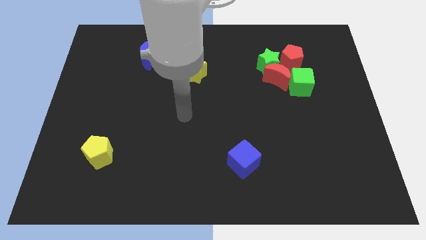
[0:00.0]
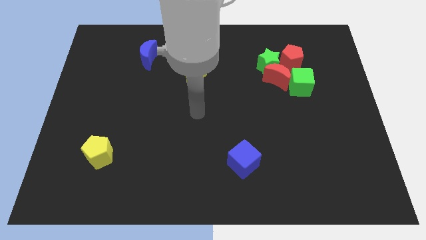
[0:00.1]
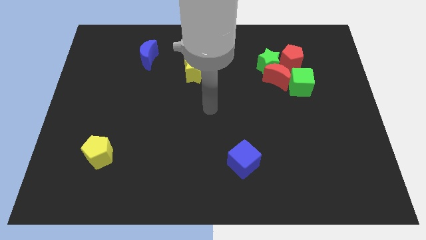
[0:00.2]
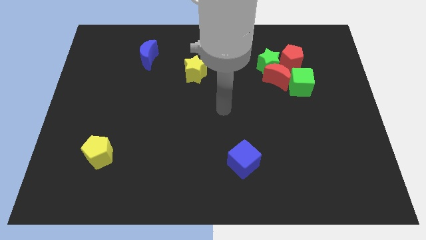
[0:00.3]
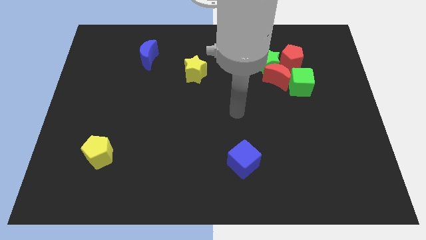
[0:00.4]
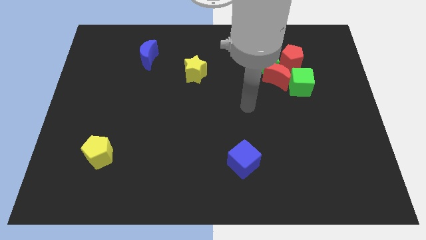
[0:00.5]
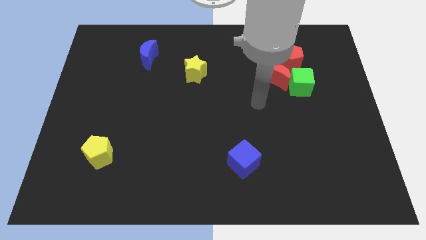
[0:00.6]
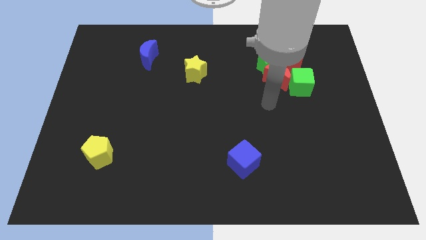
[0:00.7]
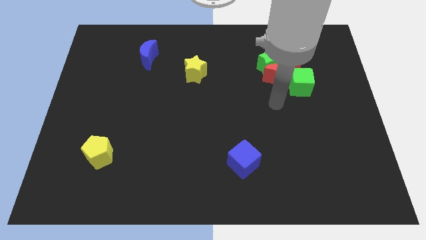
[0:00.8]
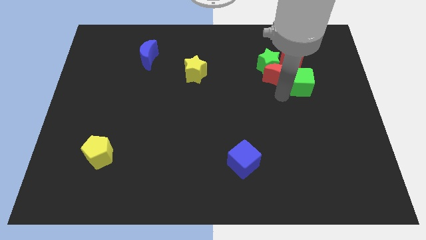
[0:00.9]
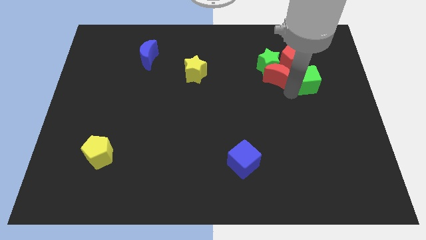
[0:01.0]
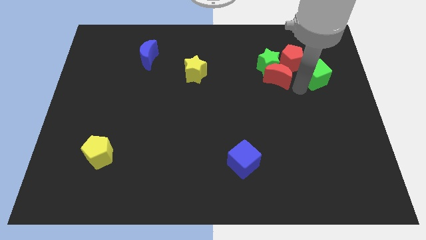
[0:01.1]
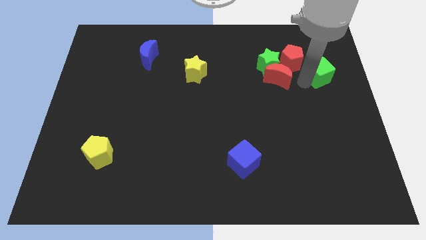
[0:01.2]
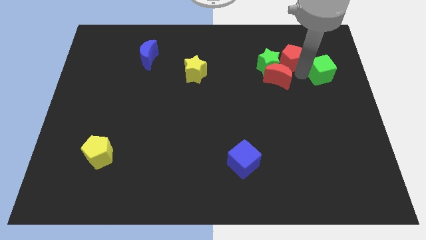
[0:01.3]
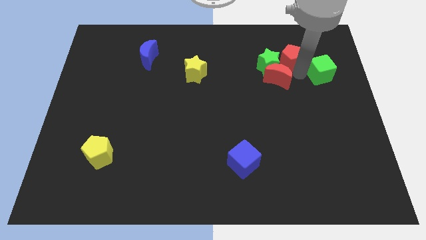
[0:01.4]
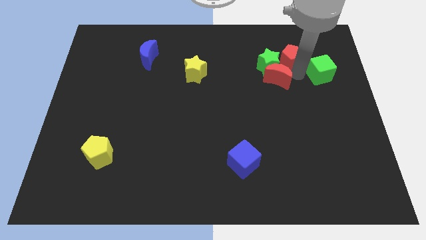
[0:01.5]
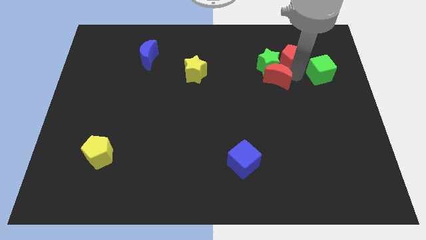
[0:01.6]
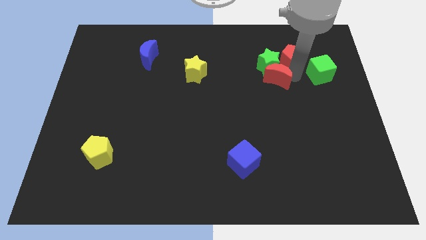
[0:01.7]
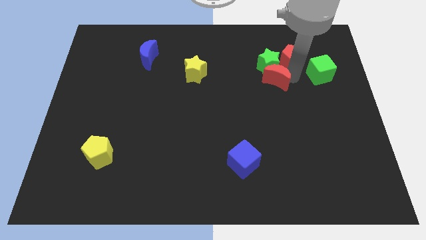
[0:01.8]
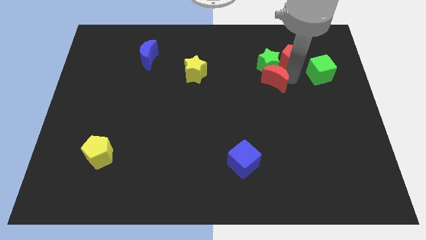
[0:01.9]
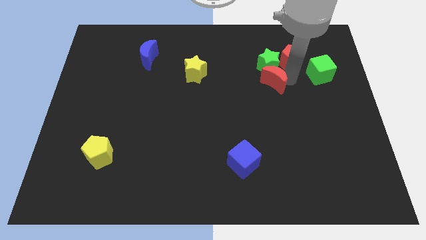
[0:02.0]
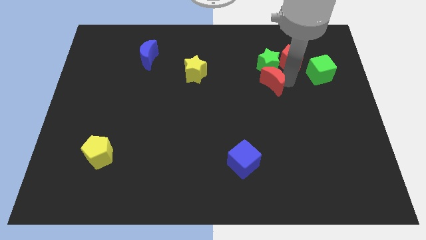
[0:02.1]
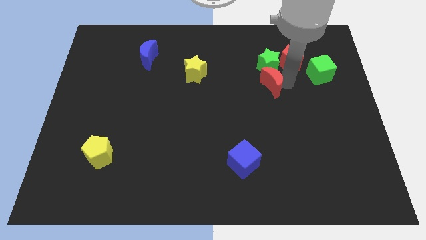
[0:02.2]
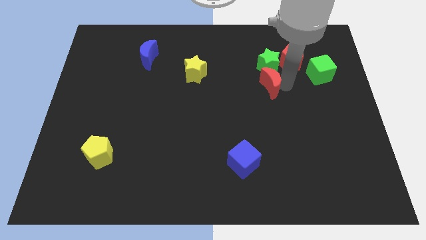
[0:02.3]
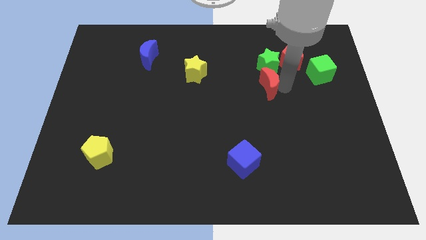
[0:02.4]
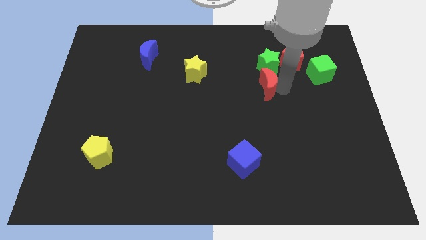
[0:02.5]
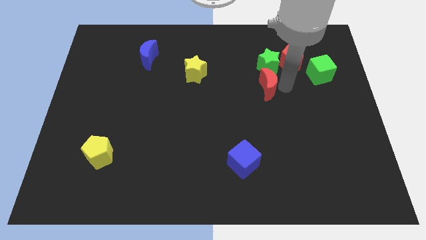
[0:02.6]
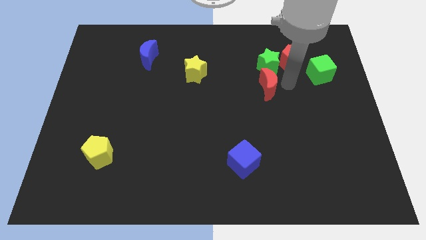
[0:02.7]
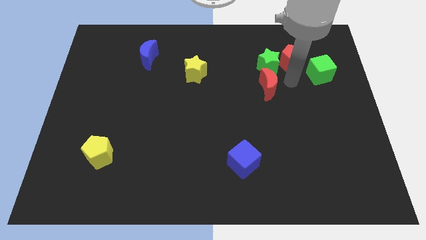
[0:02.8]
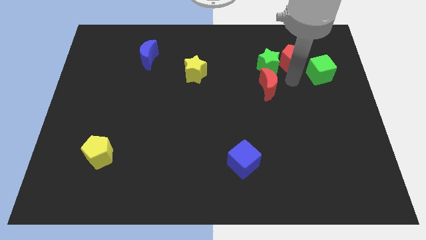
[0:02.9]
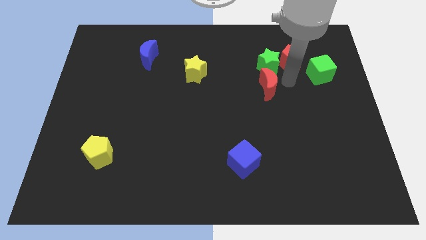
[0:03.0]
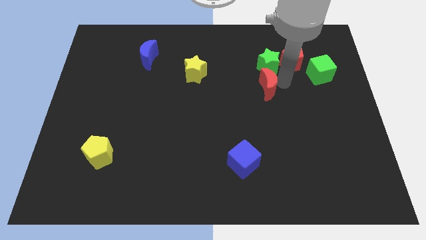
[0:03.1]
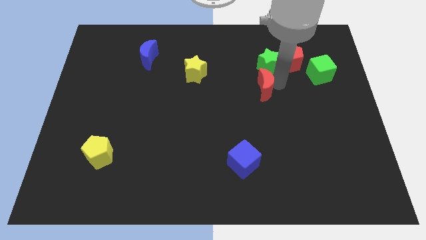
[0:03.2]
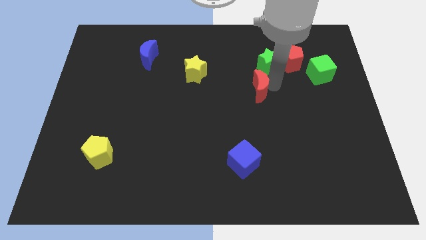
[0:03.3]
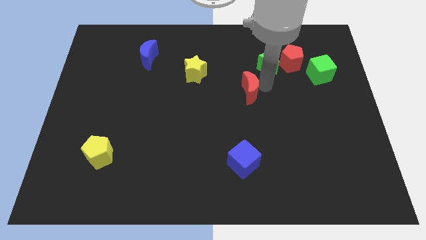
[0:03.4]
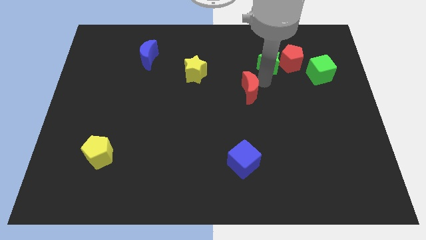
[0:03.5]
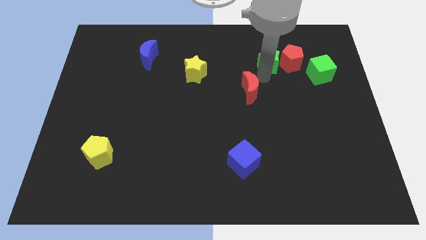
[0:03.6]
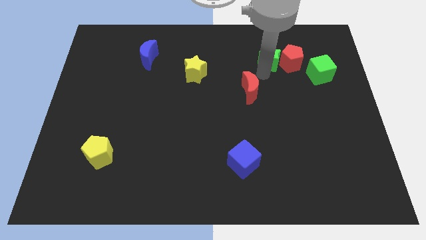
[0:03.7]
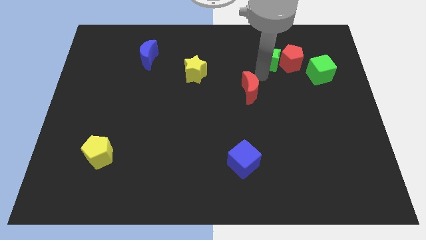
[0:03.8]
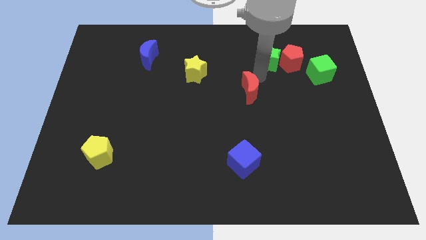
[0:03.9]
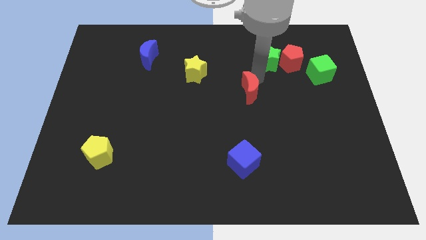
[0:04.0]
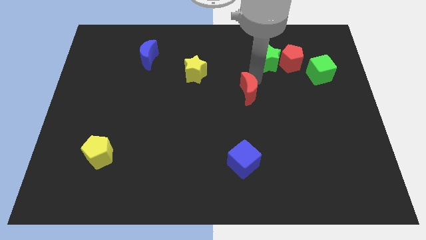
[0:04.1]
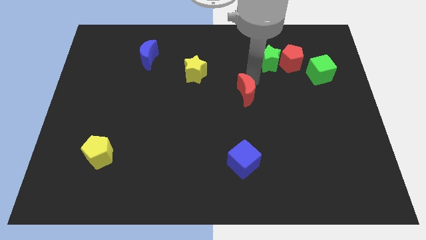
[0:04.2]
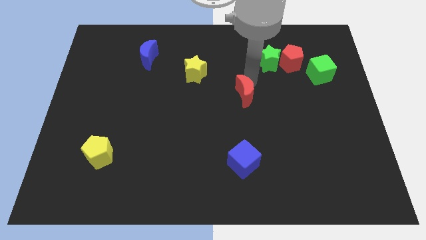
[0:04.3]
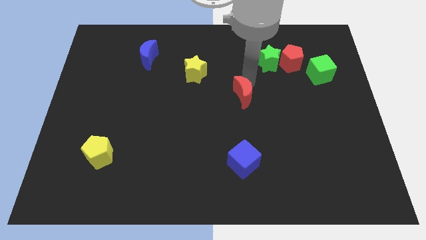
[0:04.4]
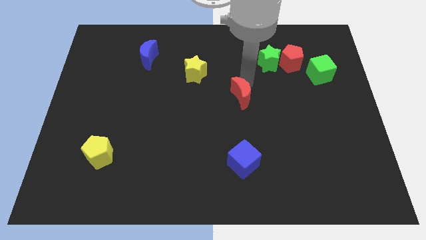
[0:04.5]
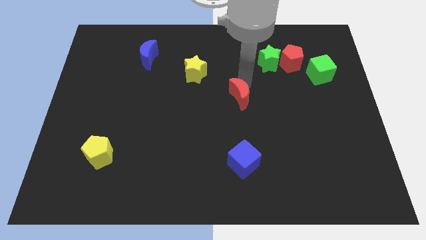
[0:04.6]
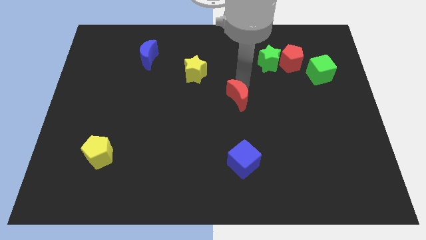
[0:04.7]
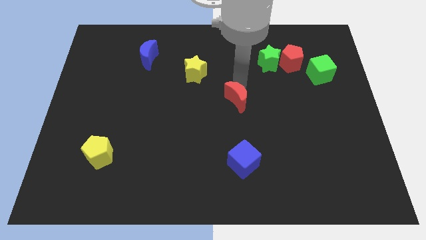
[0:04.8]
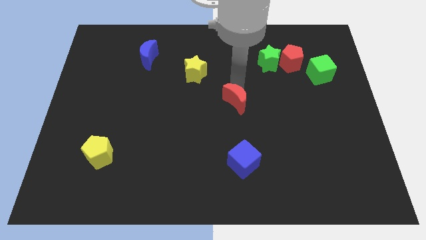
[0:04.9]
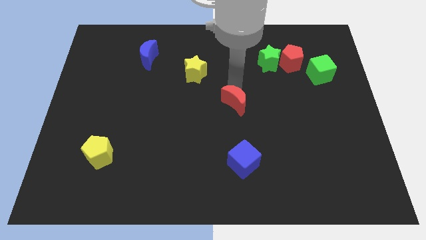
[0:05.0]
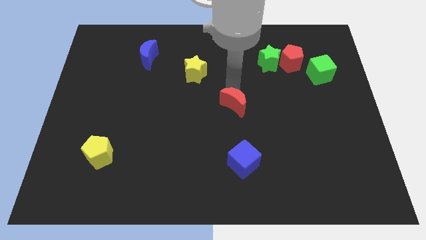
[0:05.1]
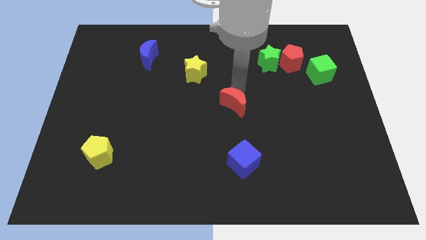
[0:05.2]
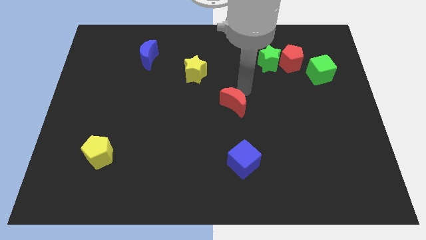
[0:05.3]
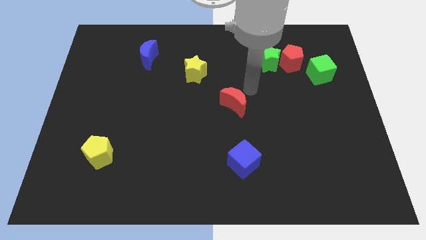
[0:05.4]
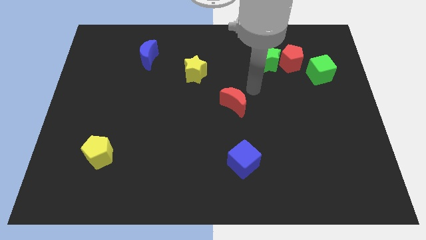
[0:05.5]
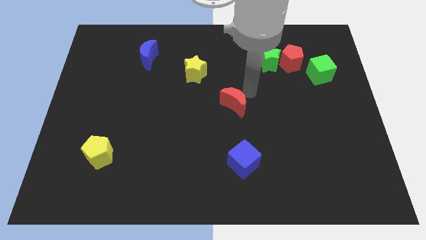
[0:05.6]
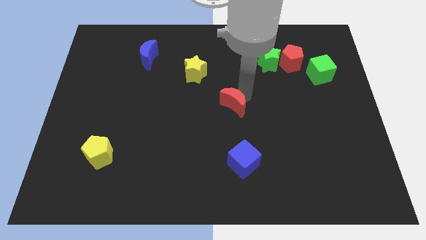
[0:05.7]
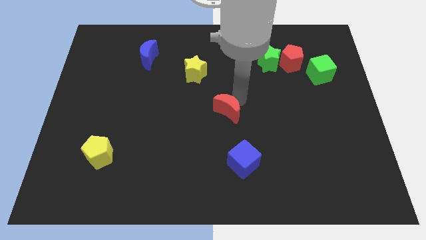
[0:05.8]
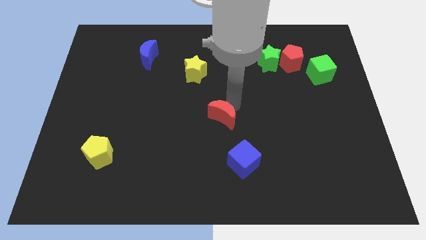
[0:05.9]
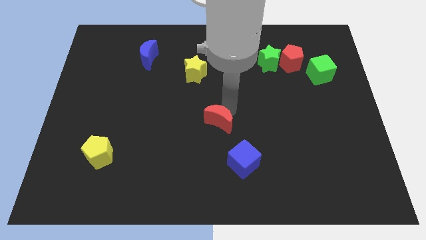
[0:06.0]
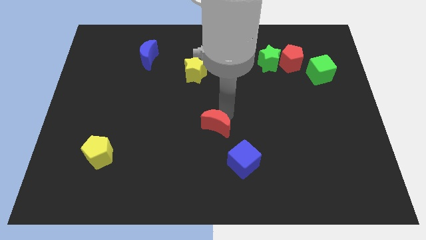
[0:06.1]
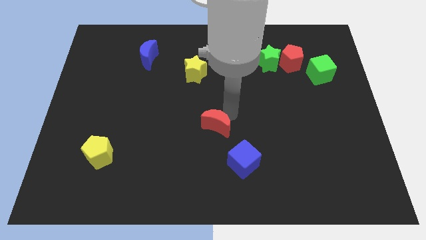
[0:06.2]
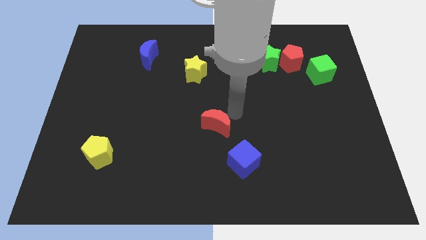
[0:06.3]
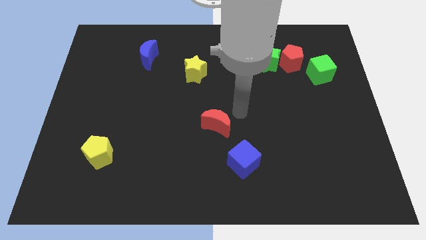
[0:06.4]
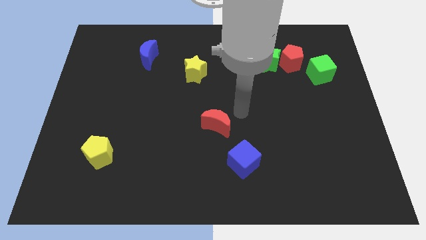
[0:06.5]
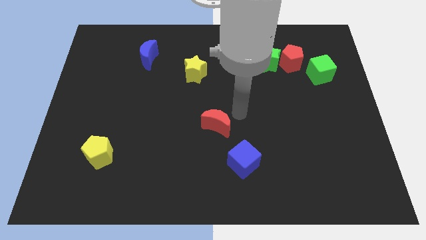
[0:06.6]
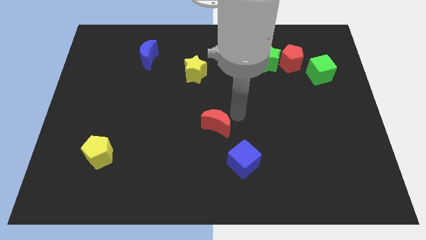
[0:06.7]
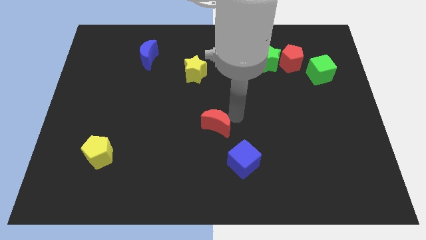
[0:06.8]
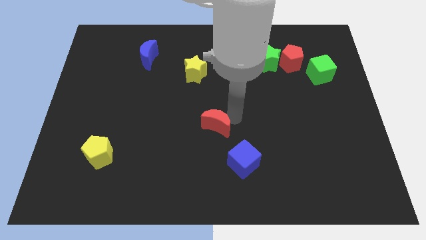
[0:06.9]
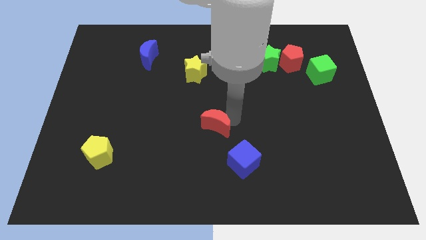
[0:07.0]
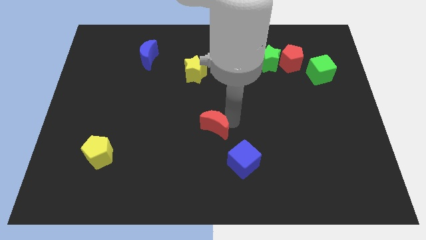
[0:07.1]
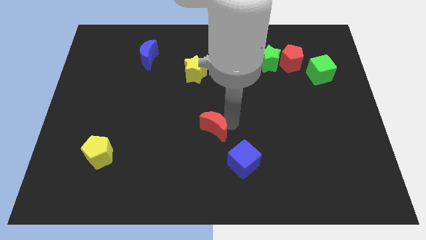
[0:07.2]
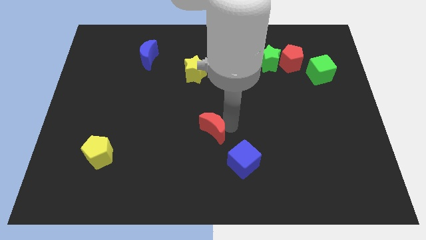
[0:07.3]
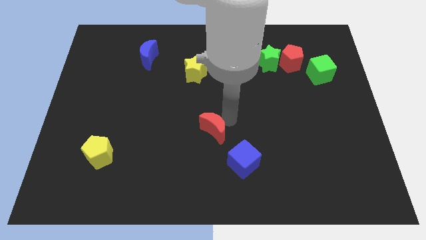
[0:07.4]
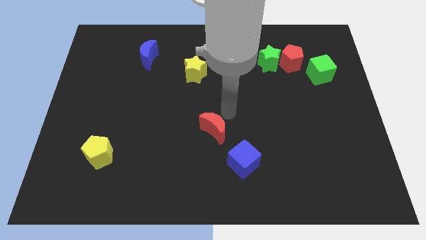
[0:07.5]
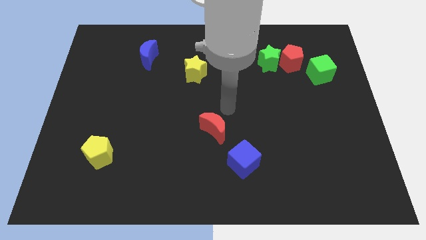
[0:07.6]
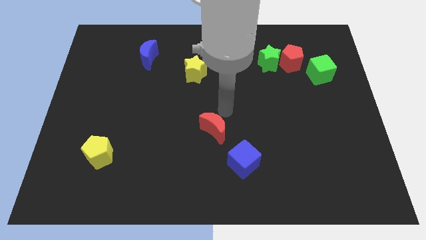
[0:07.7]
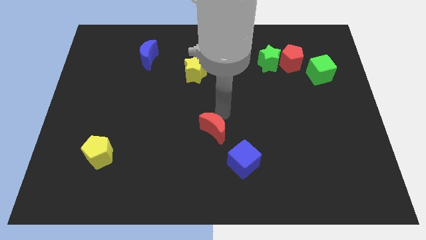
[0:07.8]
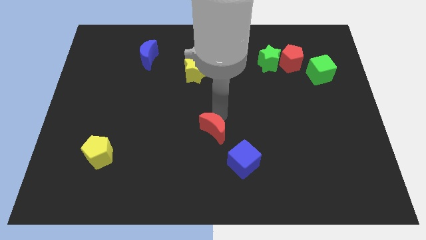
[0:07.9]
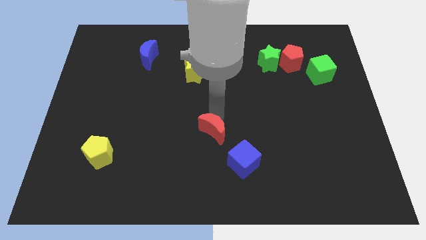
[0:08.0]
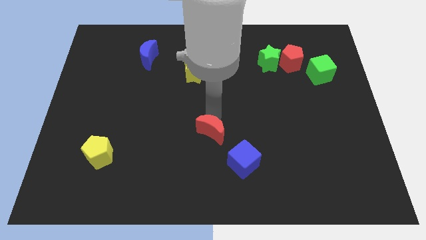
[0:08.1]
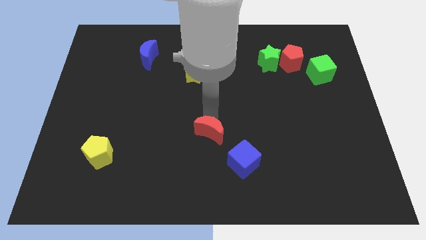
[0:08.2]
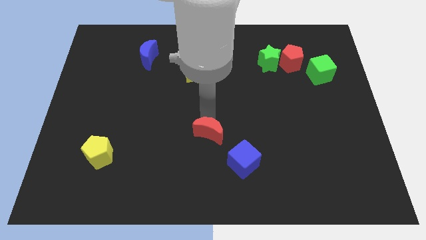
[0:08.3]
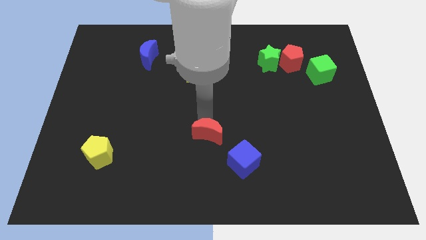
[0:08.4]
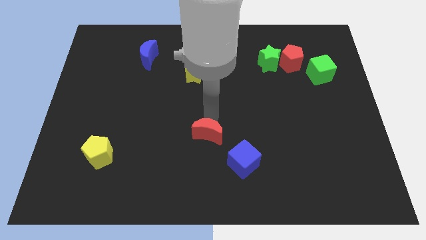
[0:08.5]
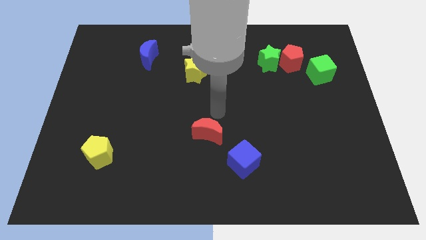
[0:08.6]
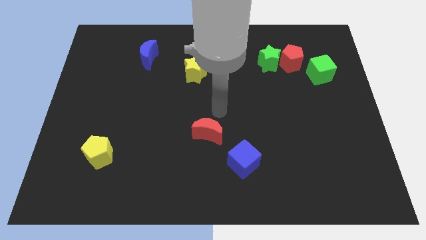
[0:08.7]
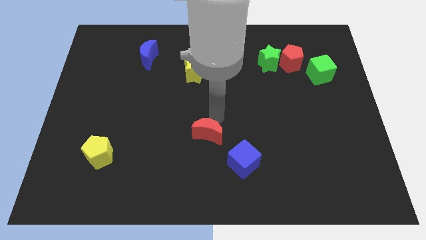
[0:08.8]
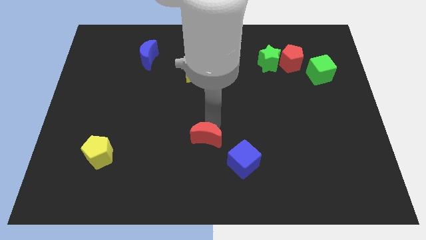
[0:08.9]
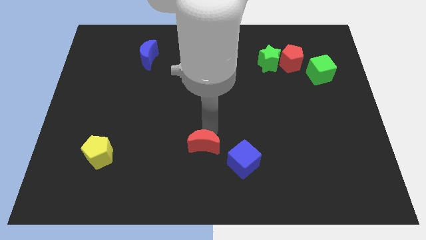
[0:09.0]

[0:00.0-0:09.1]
put the red moon just left of the blue cube
